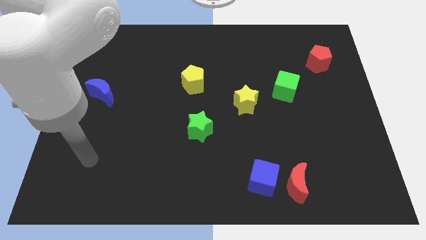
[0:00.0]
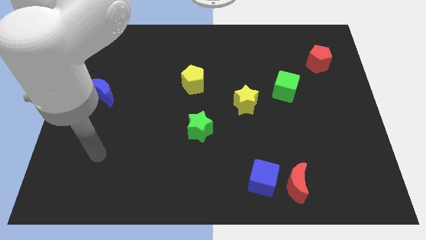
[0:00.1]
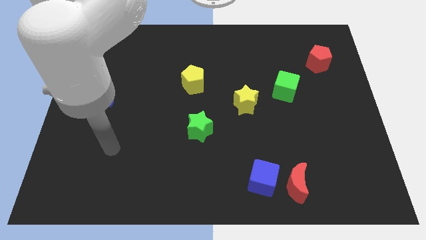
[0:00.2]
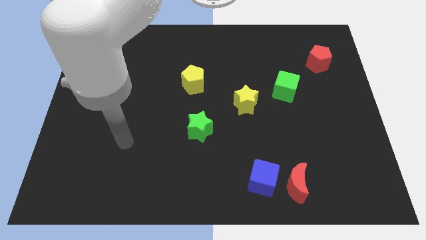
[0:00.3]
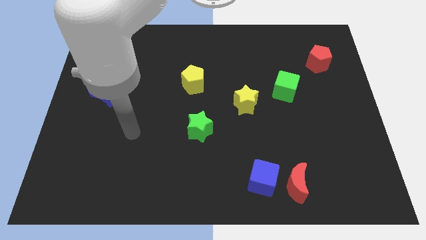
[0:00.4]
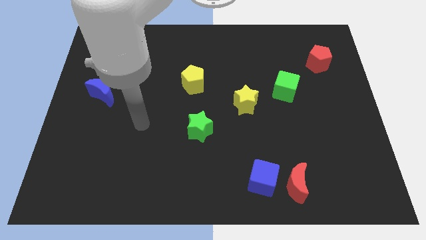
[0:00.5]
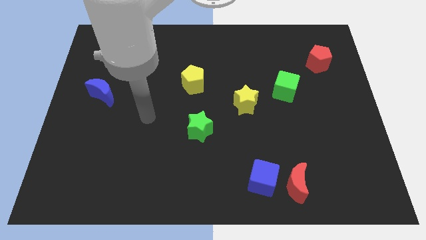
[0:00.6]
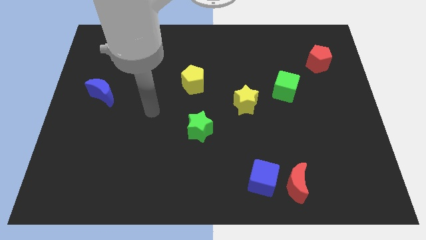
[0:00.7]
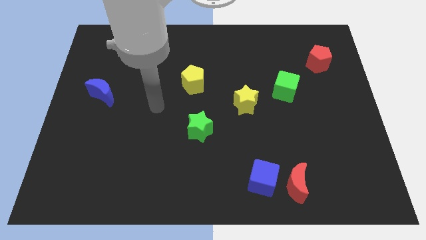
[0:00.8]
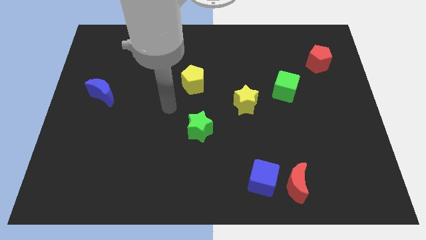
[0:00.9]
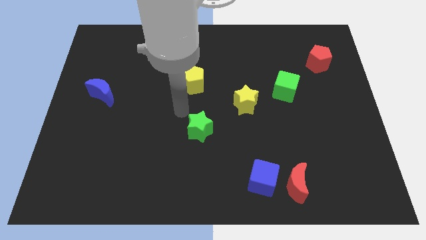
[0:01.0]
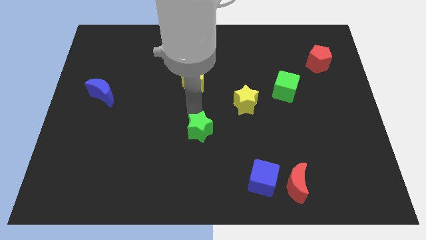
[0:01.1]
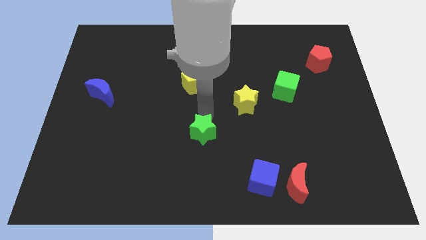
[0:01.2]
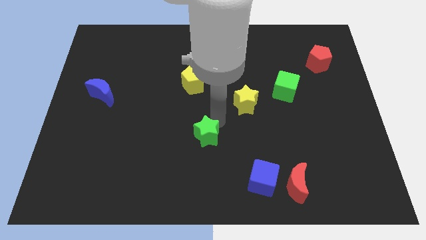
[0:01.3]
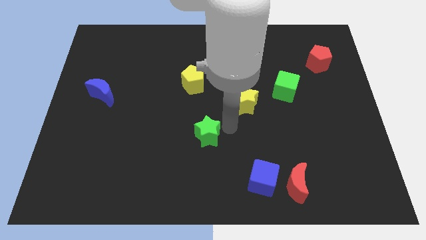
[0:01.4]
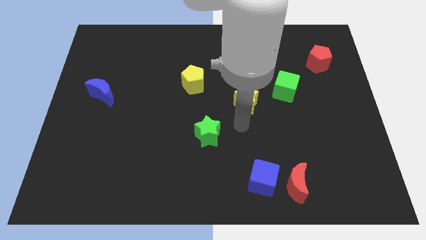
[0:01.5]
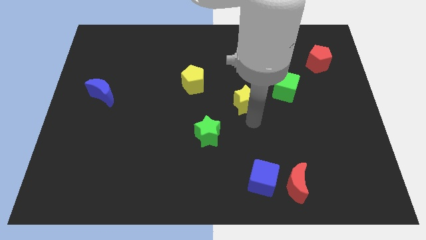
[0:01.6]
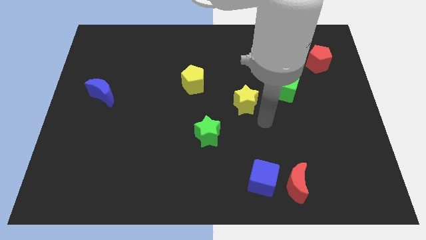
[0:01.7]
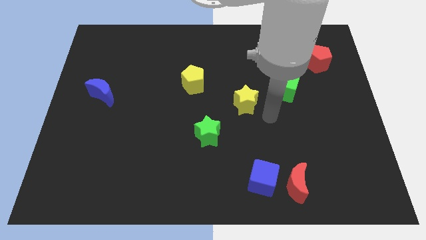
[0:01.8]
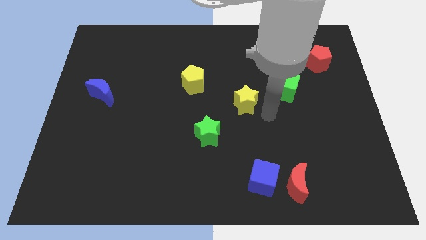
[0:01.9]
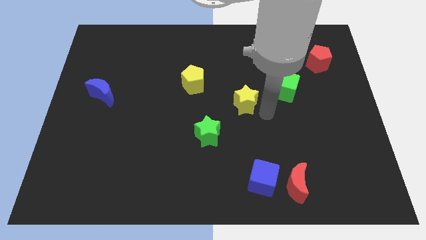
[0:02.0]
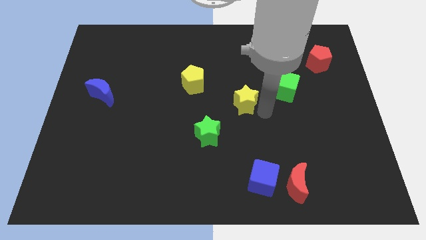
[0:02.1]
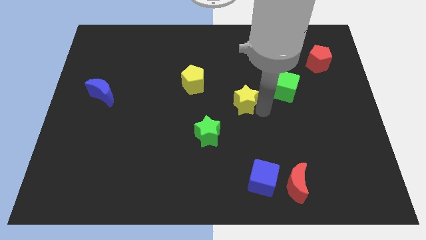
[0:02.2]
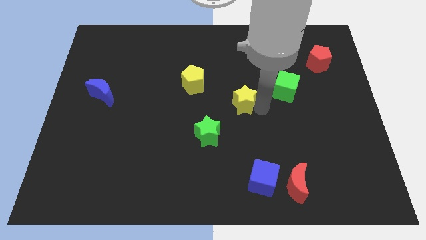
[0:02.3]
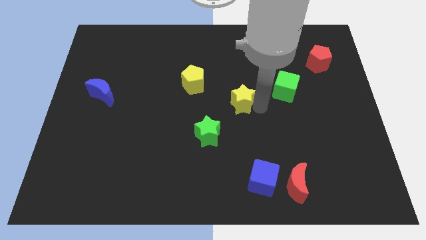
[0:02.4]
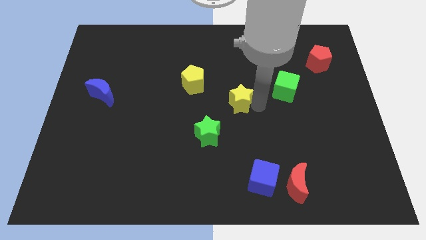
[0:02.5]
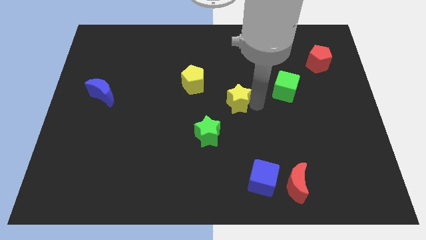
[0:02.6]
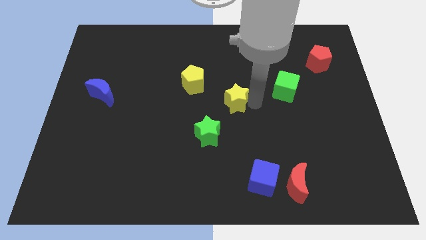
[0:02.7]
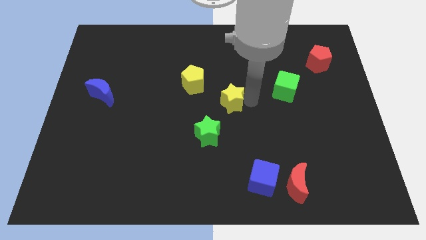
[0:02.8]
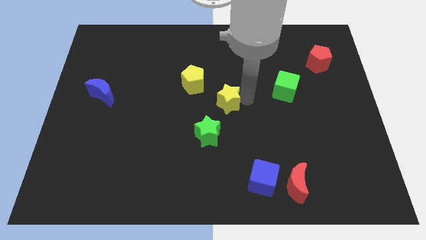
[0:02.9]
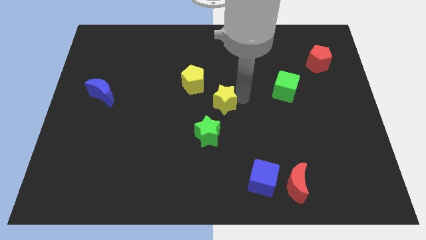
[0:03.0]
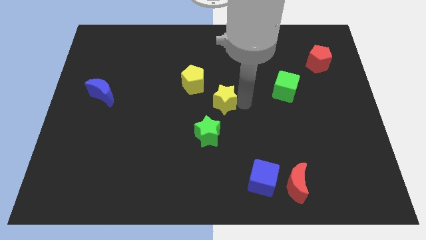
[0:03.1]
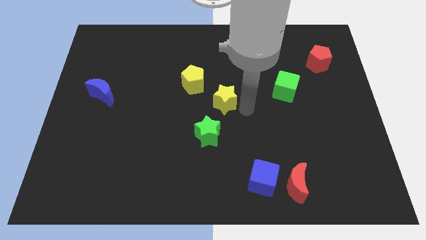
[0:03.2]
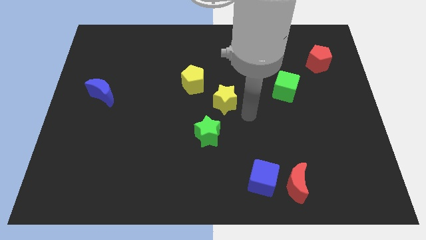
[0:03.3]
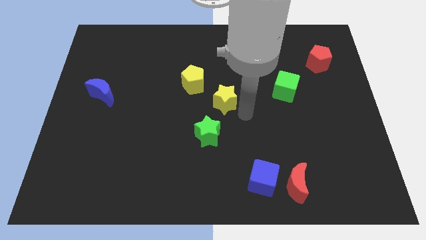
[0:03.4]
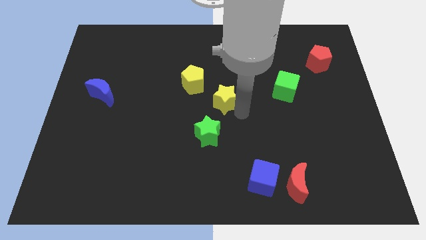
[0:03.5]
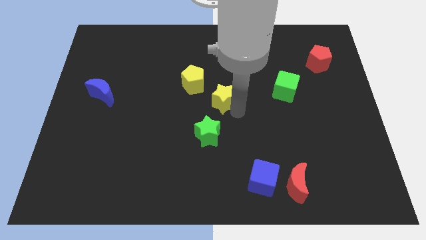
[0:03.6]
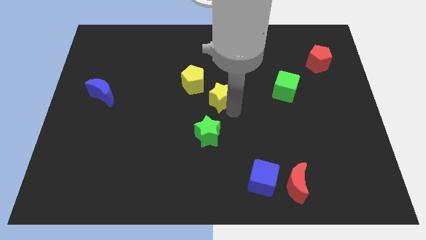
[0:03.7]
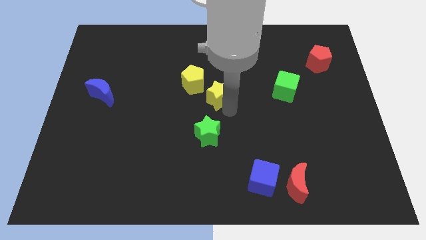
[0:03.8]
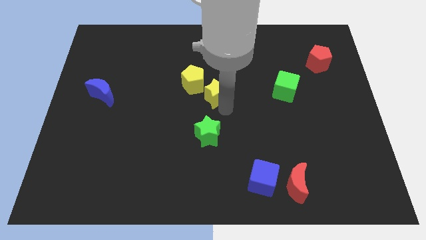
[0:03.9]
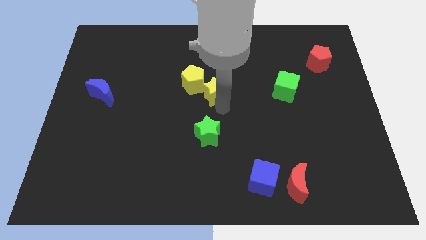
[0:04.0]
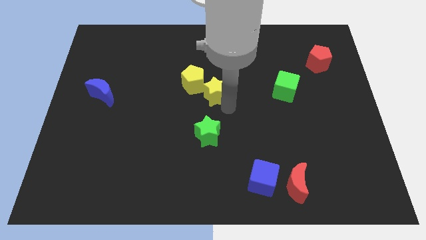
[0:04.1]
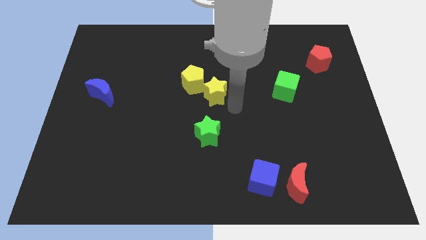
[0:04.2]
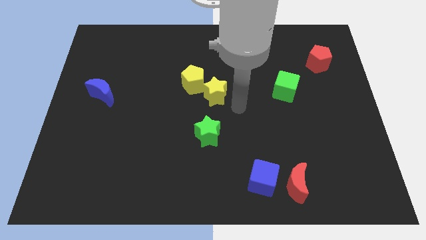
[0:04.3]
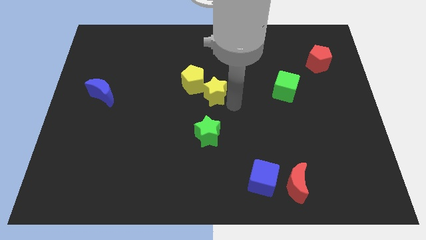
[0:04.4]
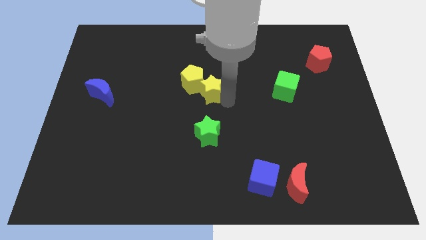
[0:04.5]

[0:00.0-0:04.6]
put the yellow star towards the yellow pentagon

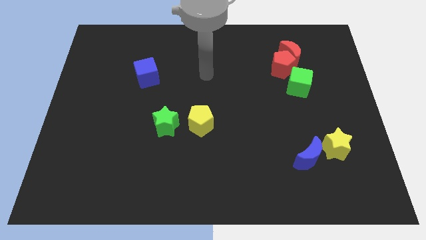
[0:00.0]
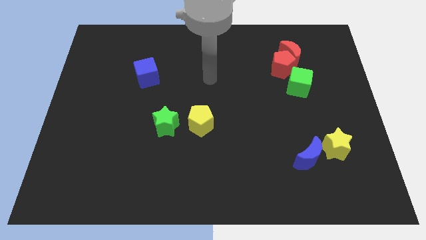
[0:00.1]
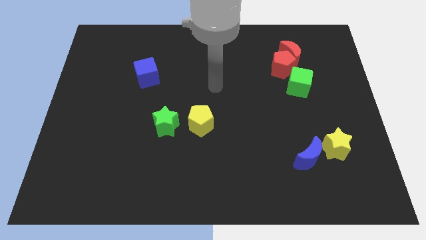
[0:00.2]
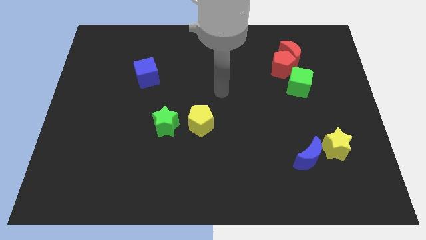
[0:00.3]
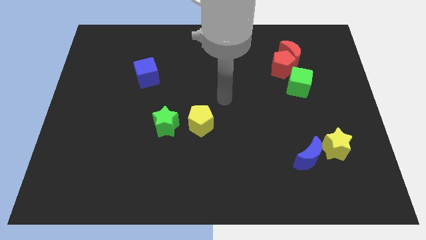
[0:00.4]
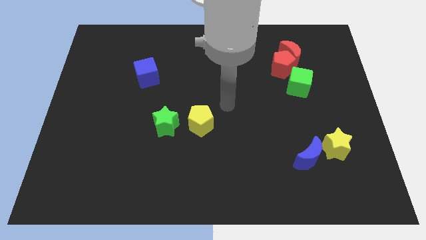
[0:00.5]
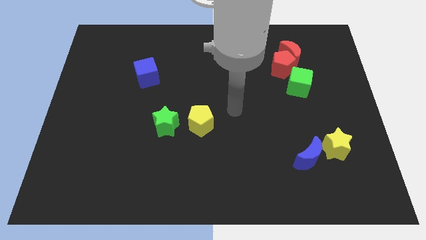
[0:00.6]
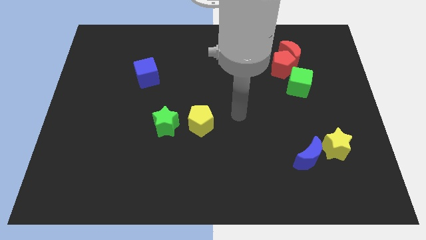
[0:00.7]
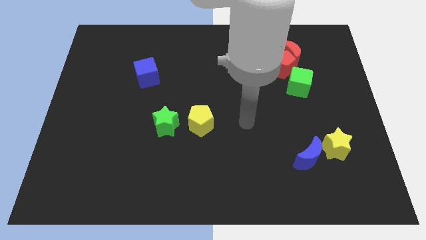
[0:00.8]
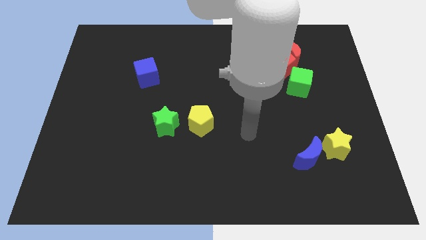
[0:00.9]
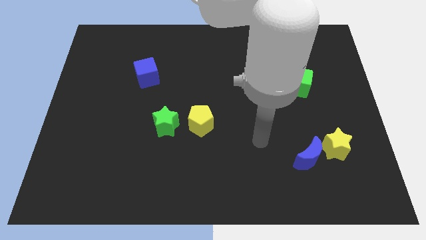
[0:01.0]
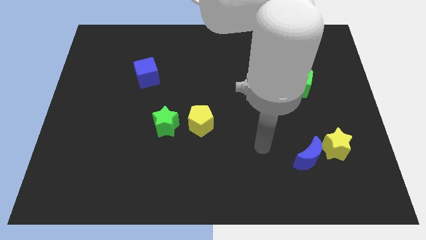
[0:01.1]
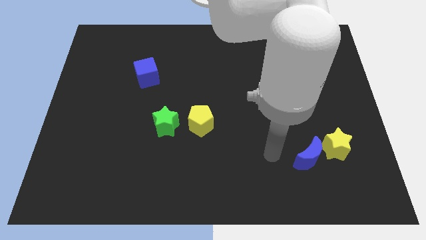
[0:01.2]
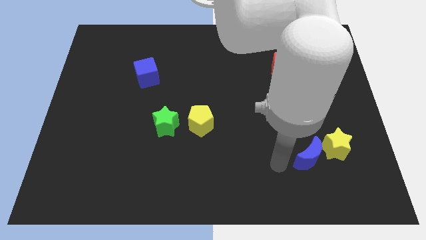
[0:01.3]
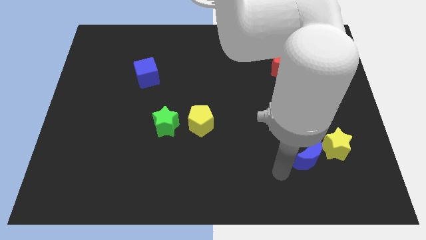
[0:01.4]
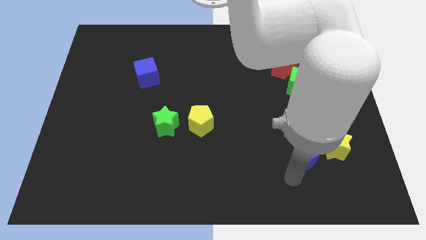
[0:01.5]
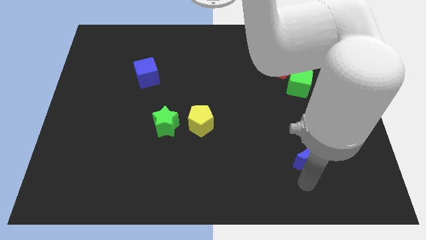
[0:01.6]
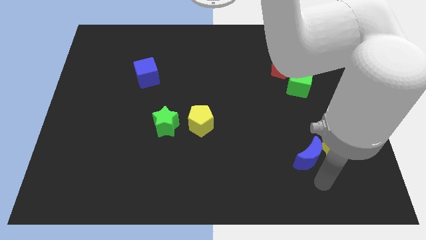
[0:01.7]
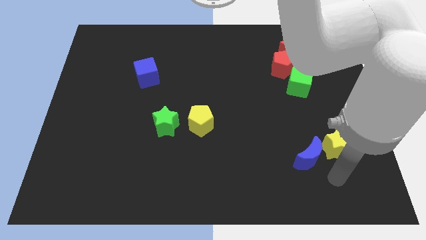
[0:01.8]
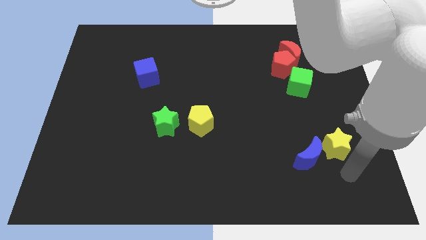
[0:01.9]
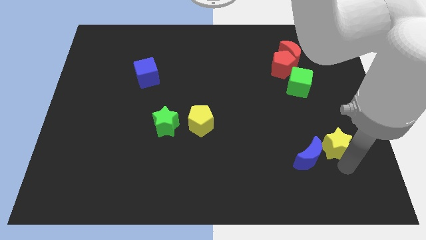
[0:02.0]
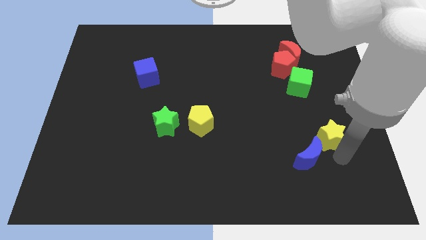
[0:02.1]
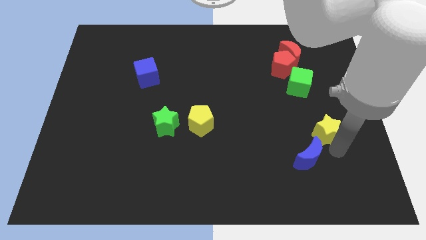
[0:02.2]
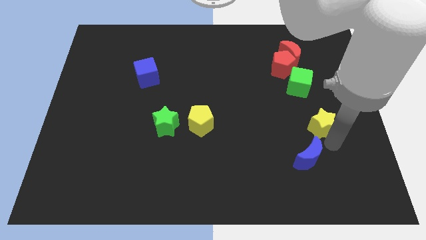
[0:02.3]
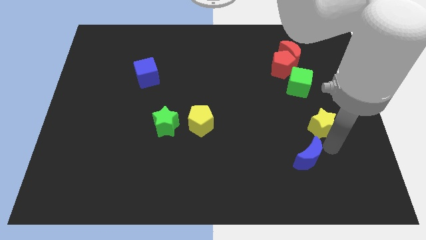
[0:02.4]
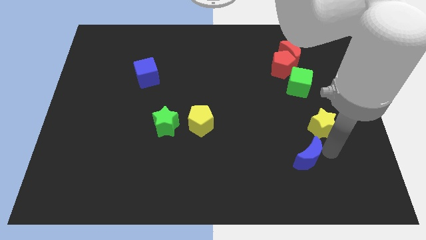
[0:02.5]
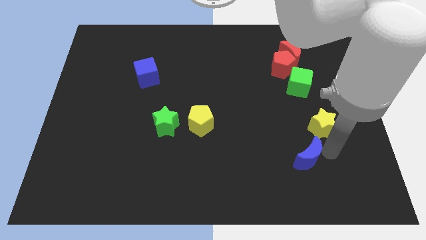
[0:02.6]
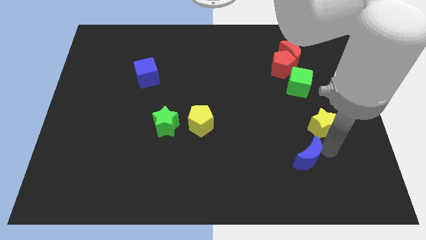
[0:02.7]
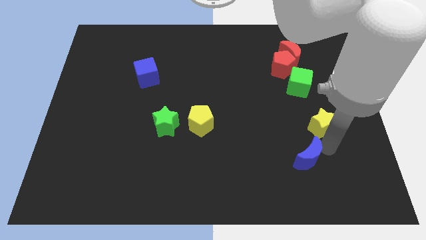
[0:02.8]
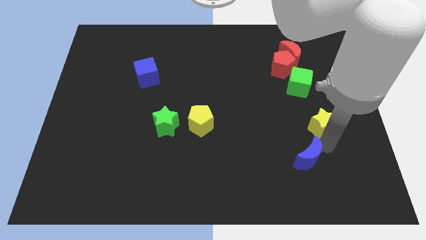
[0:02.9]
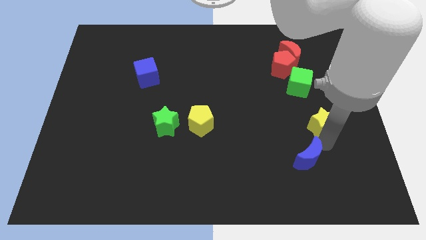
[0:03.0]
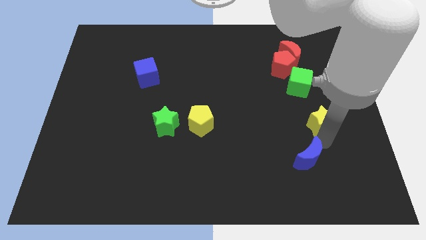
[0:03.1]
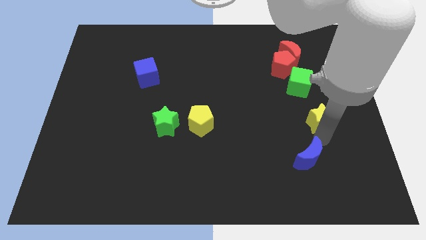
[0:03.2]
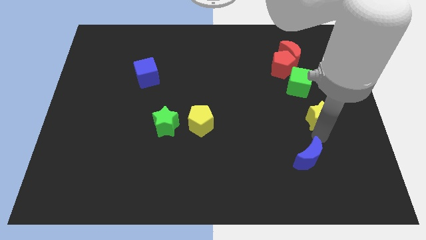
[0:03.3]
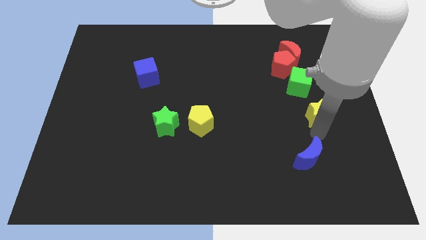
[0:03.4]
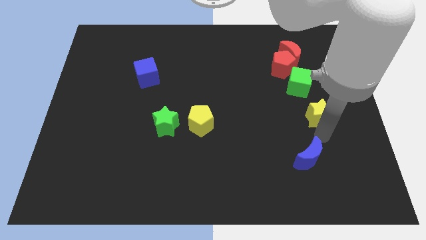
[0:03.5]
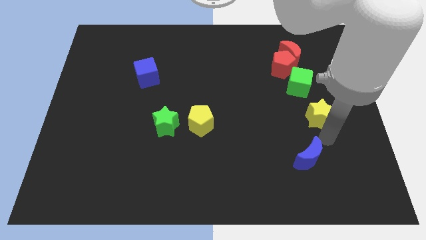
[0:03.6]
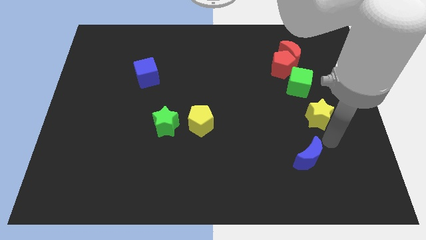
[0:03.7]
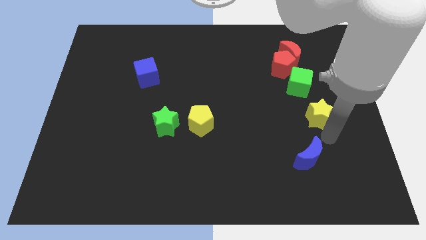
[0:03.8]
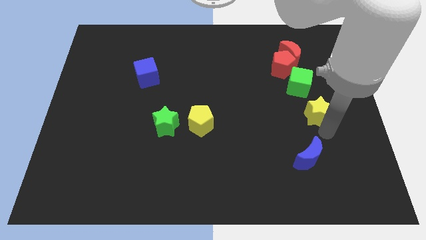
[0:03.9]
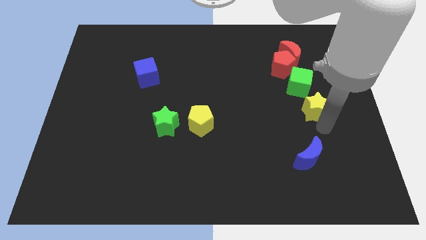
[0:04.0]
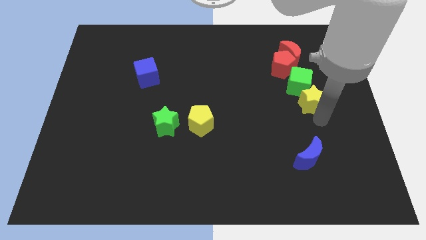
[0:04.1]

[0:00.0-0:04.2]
move the yellow star to the green cube
